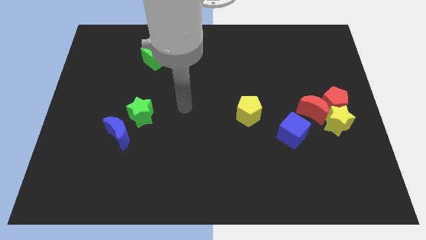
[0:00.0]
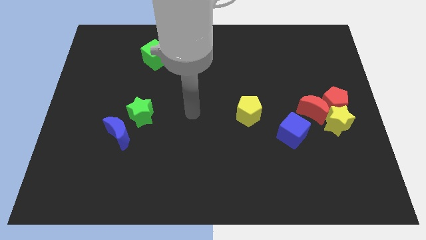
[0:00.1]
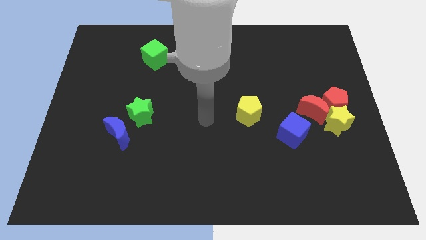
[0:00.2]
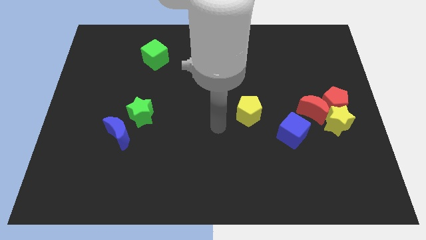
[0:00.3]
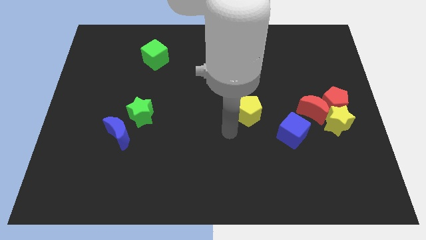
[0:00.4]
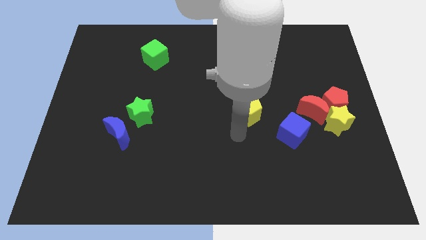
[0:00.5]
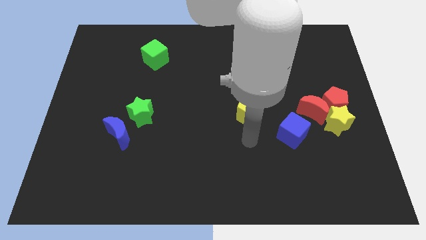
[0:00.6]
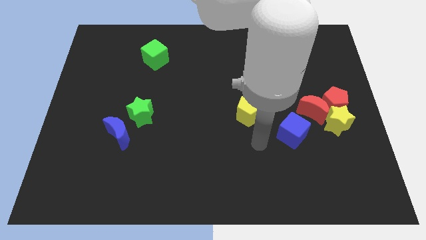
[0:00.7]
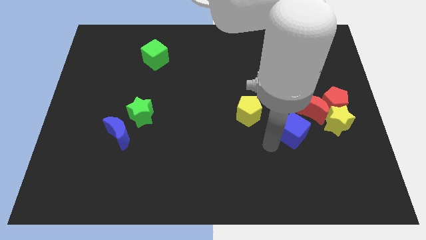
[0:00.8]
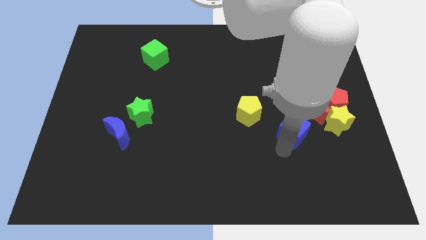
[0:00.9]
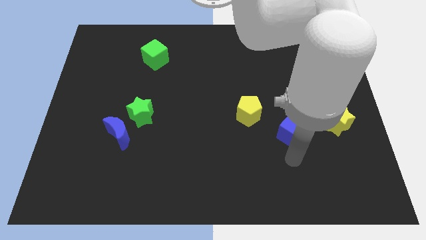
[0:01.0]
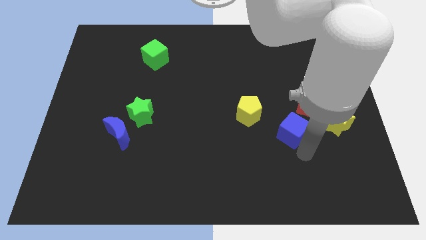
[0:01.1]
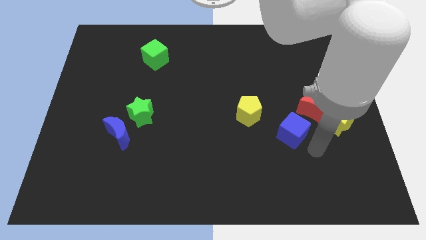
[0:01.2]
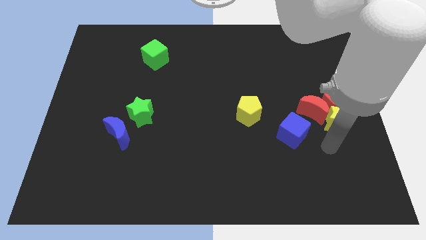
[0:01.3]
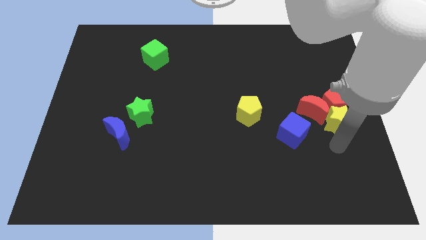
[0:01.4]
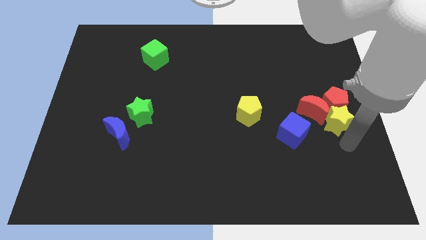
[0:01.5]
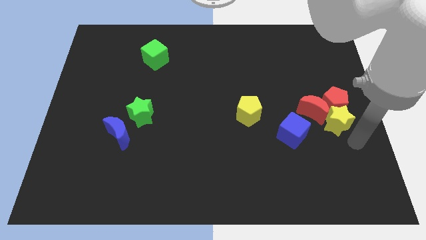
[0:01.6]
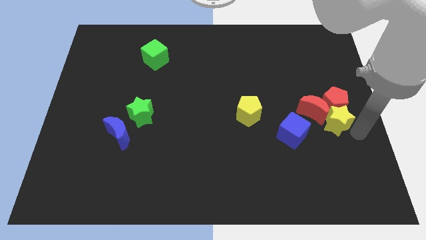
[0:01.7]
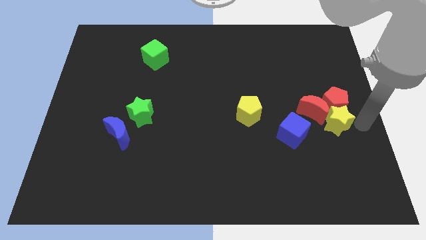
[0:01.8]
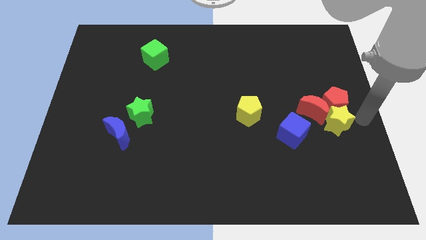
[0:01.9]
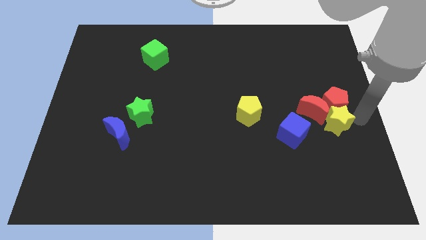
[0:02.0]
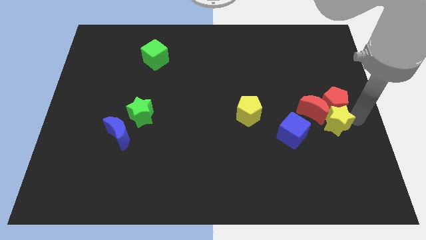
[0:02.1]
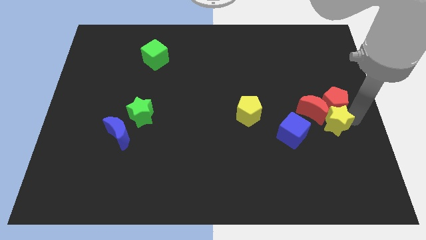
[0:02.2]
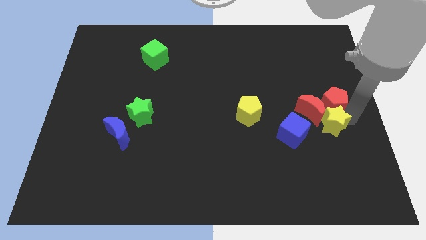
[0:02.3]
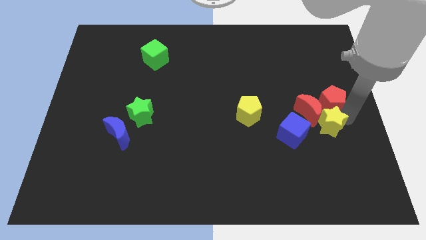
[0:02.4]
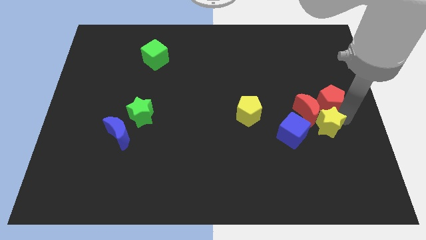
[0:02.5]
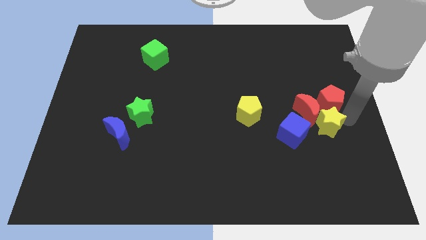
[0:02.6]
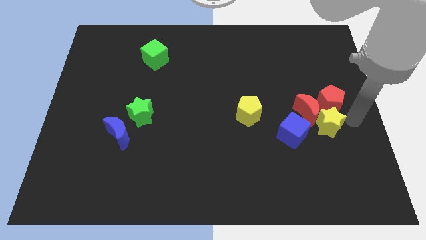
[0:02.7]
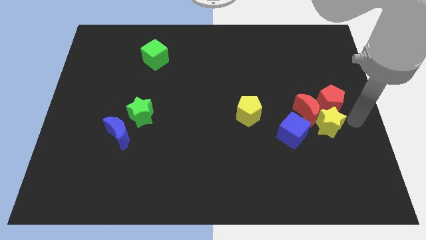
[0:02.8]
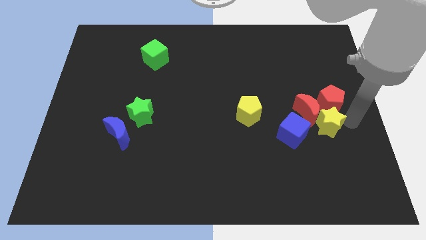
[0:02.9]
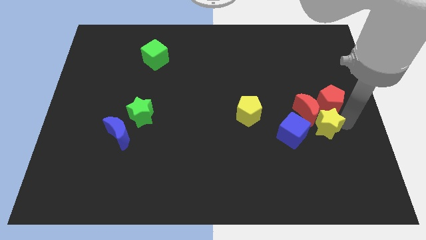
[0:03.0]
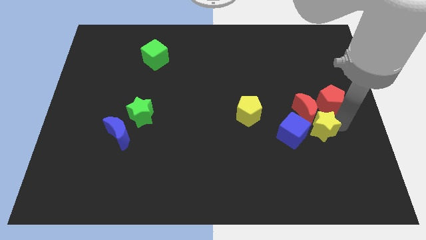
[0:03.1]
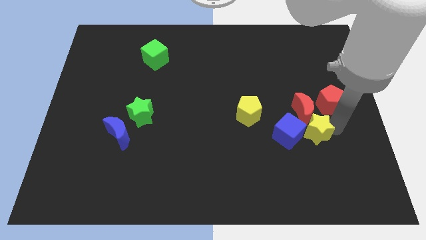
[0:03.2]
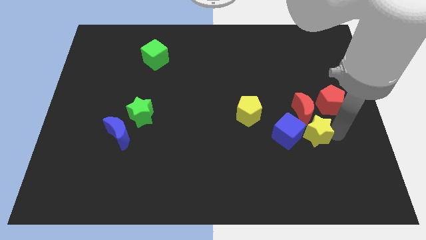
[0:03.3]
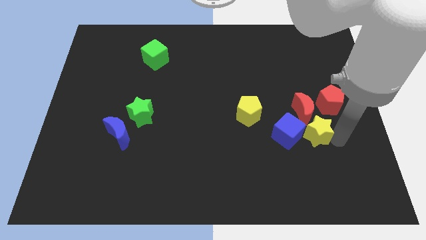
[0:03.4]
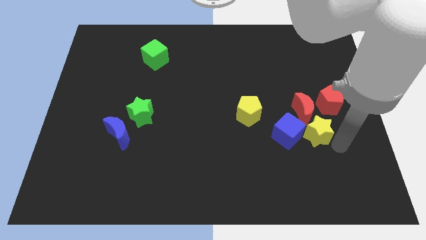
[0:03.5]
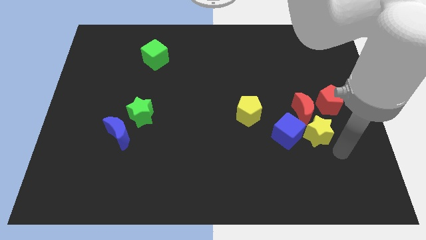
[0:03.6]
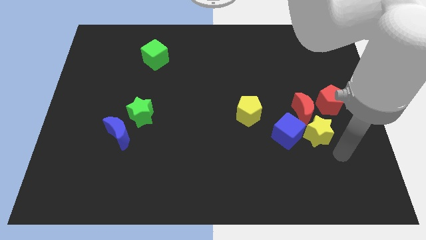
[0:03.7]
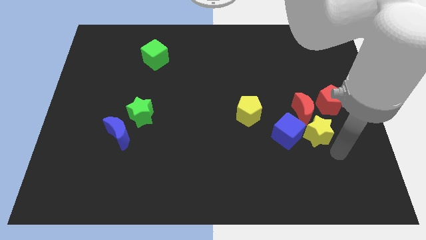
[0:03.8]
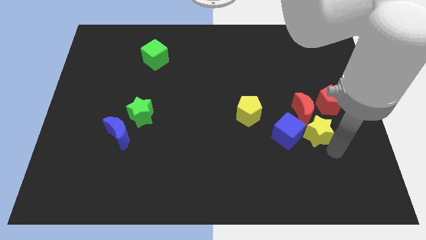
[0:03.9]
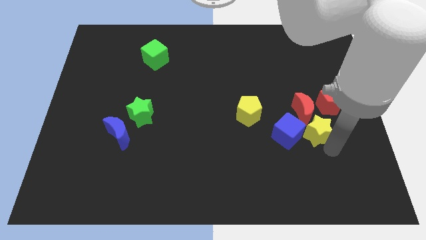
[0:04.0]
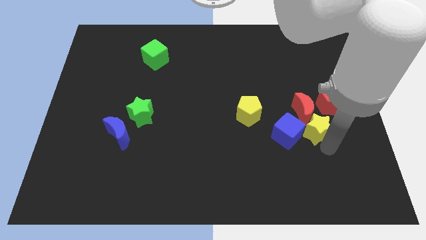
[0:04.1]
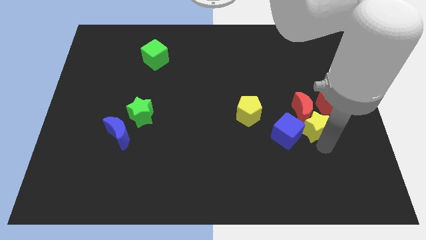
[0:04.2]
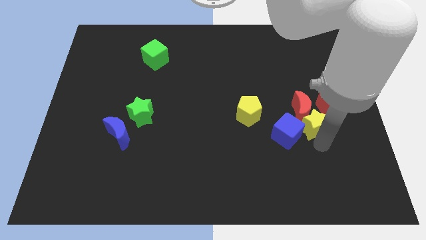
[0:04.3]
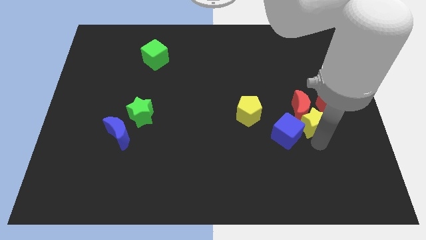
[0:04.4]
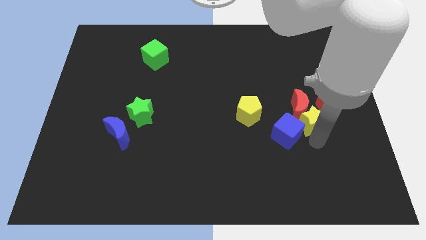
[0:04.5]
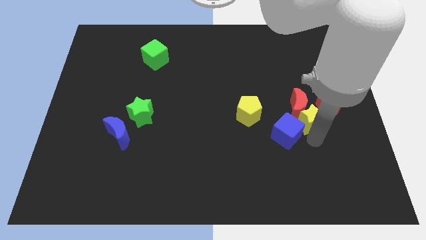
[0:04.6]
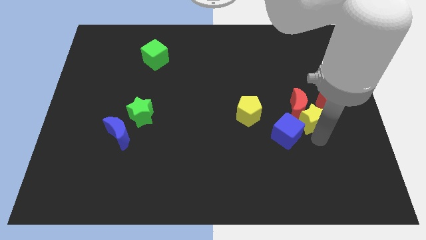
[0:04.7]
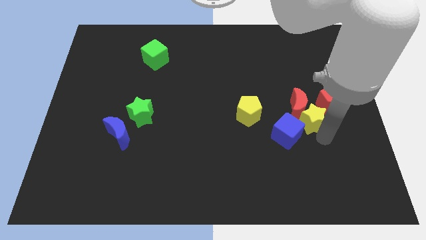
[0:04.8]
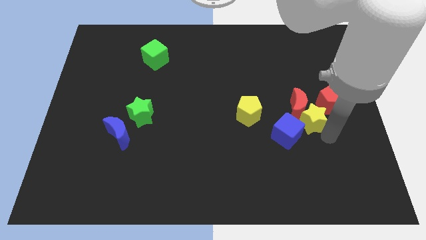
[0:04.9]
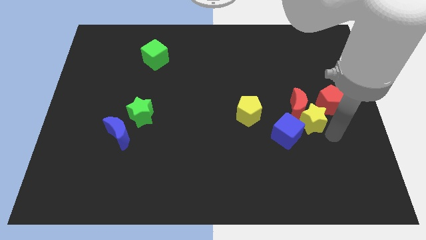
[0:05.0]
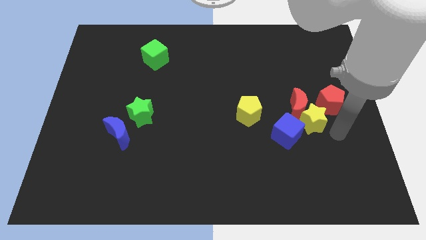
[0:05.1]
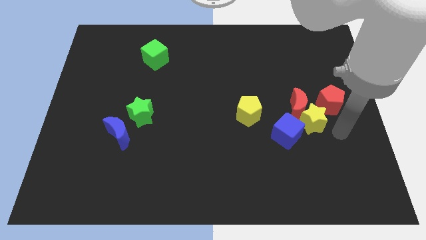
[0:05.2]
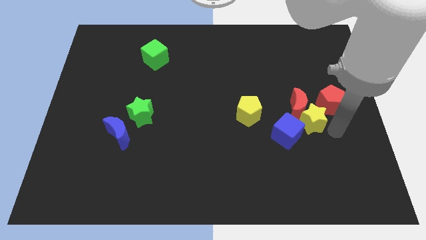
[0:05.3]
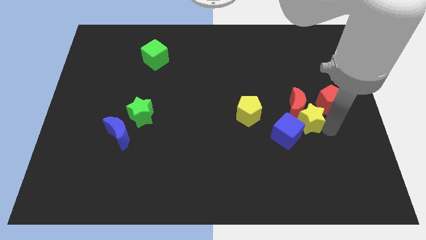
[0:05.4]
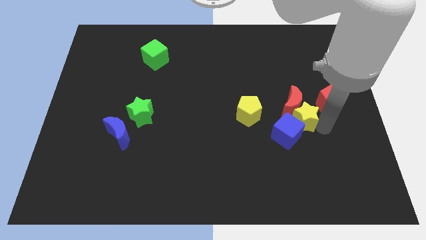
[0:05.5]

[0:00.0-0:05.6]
move the yellow star to the top side of the blue cube

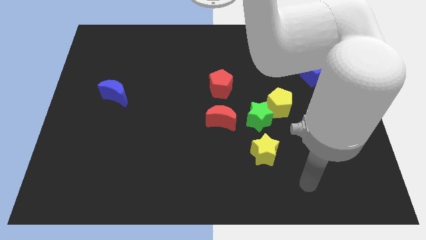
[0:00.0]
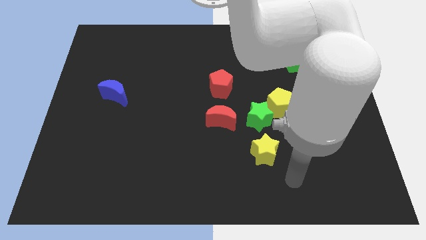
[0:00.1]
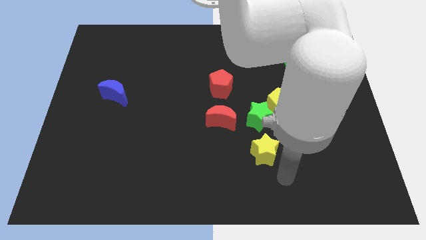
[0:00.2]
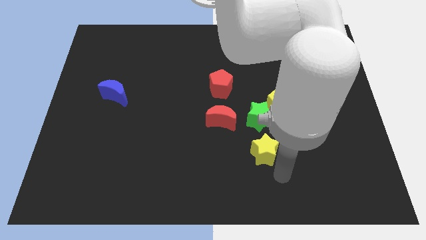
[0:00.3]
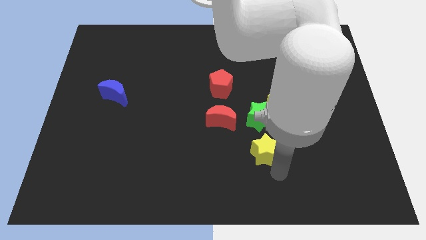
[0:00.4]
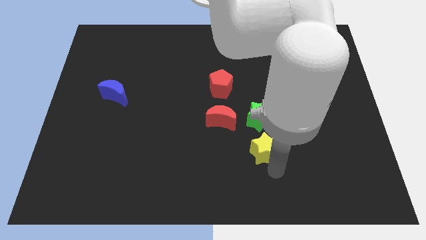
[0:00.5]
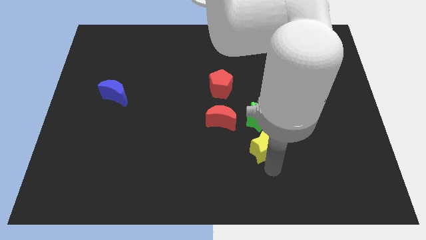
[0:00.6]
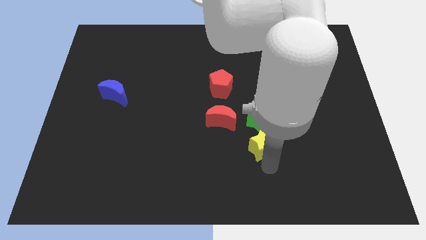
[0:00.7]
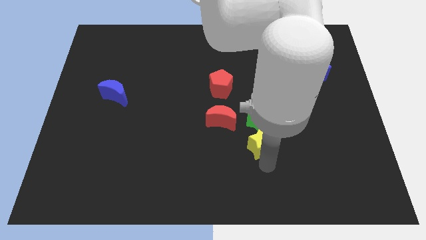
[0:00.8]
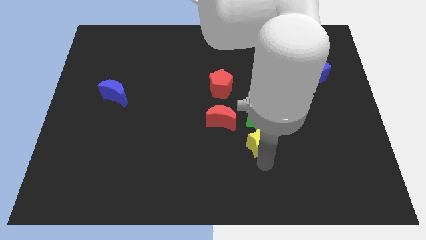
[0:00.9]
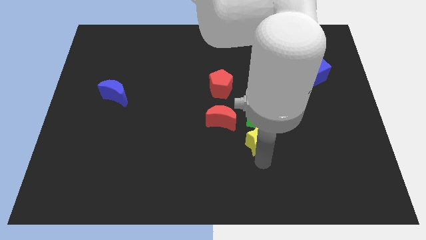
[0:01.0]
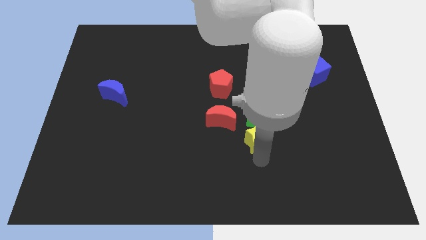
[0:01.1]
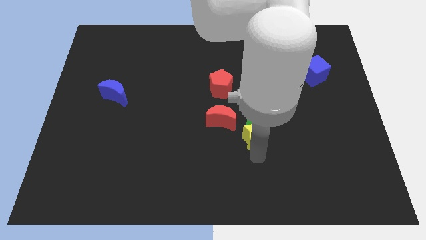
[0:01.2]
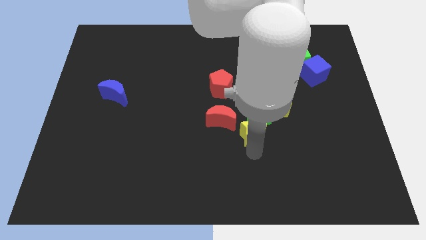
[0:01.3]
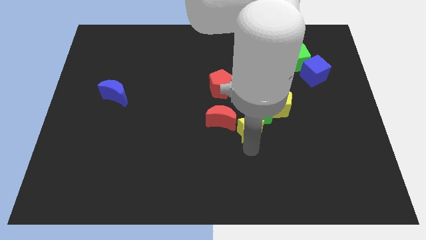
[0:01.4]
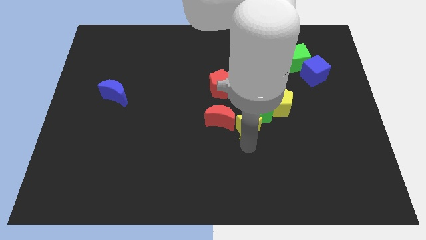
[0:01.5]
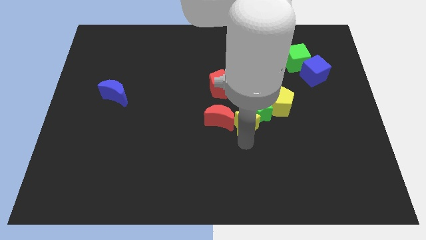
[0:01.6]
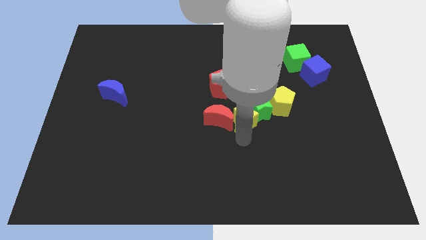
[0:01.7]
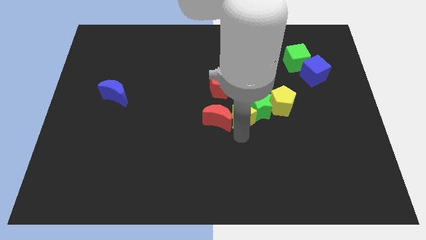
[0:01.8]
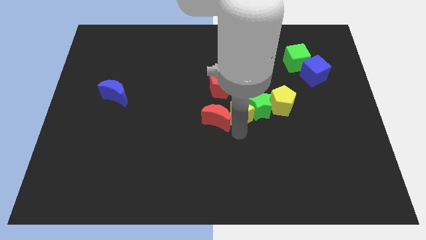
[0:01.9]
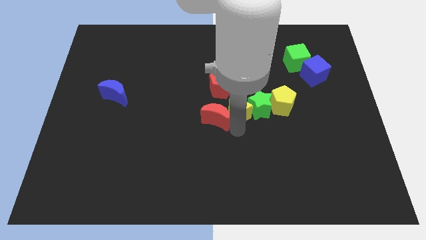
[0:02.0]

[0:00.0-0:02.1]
push the yellow star to the top left of the green star
